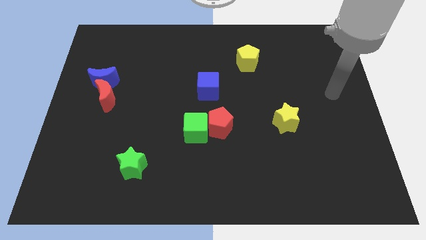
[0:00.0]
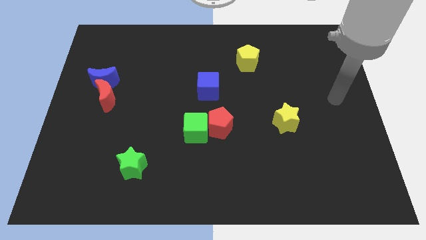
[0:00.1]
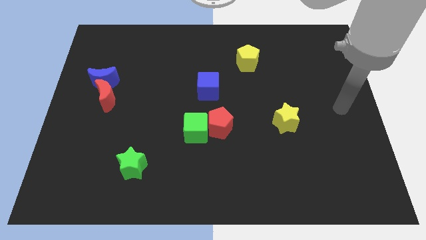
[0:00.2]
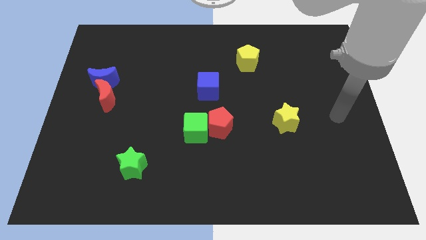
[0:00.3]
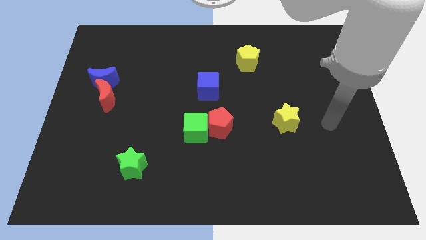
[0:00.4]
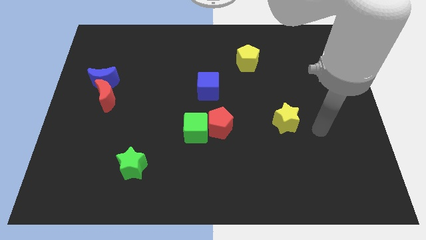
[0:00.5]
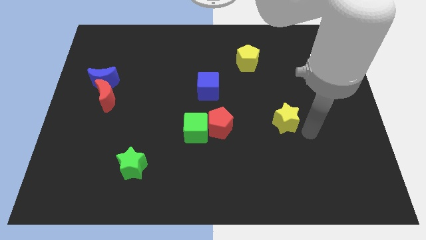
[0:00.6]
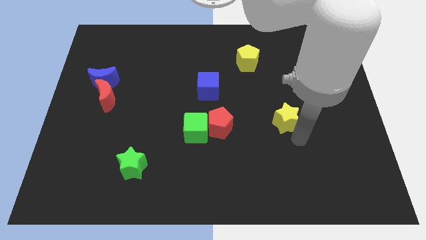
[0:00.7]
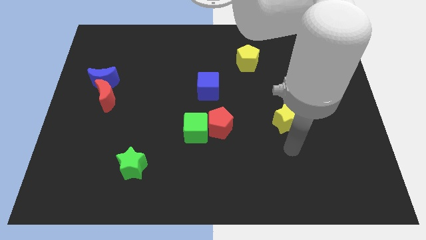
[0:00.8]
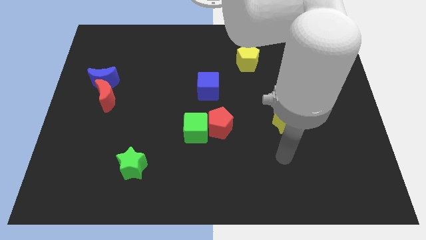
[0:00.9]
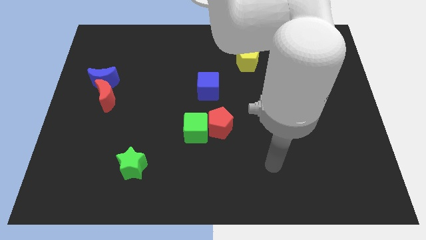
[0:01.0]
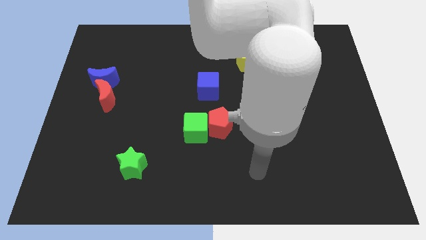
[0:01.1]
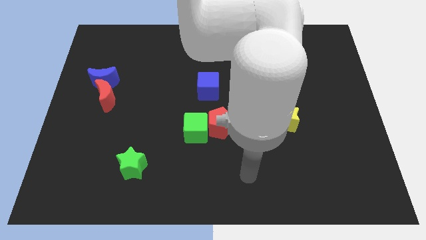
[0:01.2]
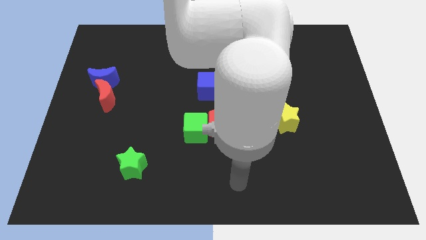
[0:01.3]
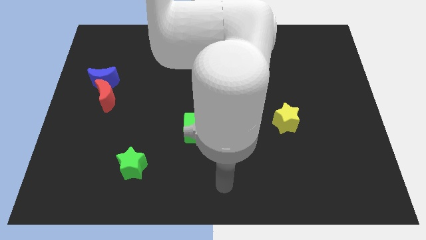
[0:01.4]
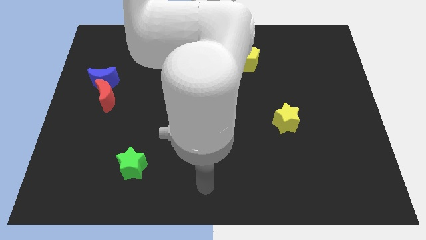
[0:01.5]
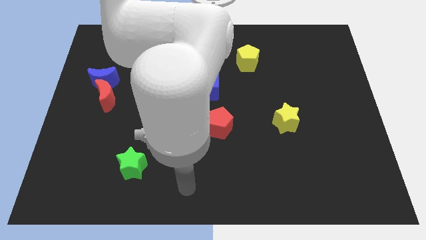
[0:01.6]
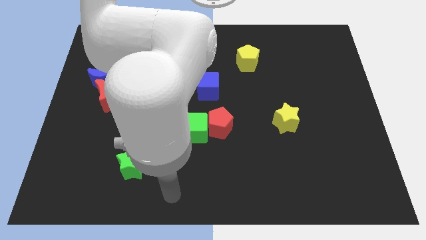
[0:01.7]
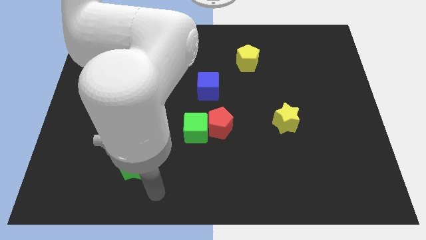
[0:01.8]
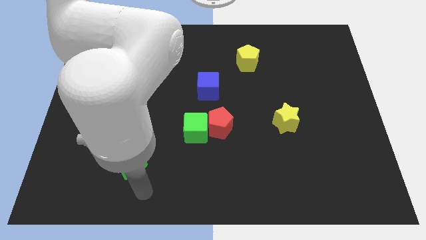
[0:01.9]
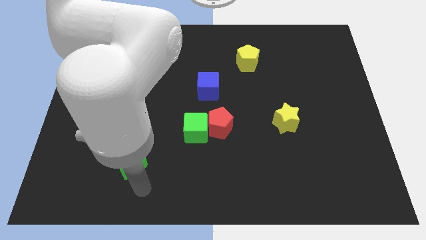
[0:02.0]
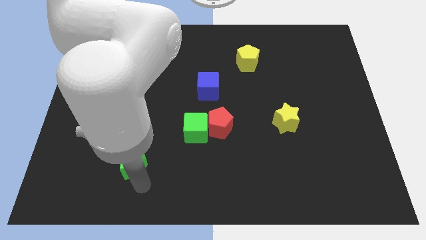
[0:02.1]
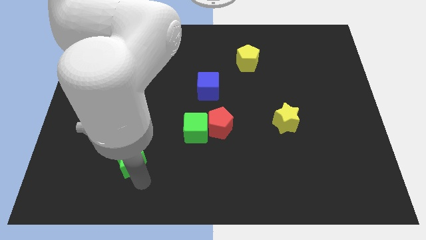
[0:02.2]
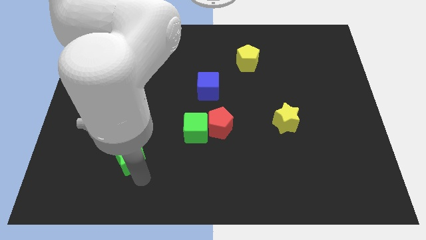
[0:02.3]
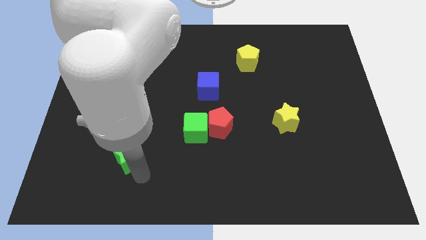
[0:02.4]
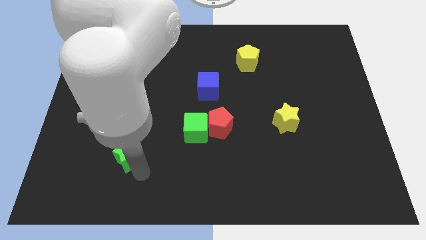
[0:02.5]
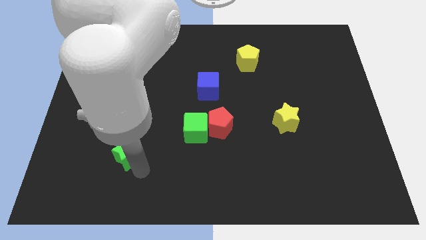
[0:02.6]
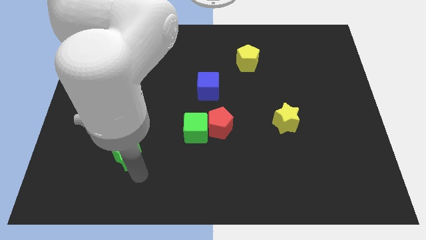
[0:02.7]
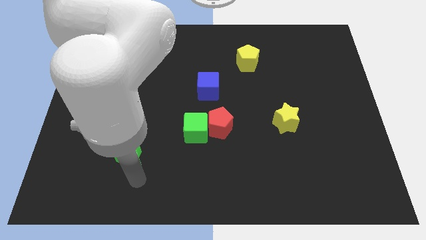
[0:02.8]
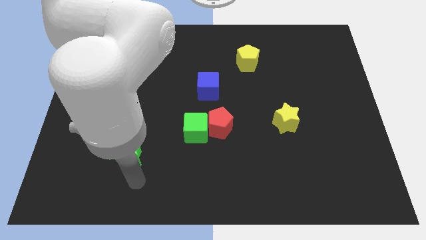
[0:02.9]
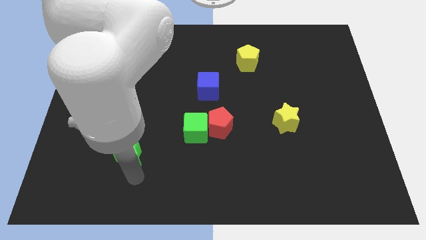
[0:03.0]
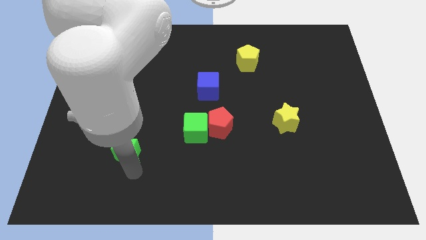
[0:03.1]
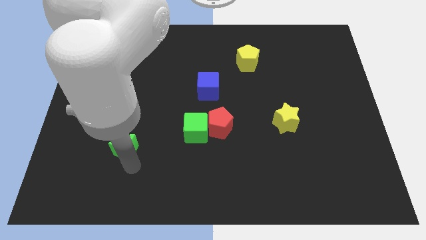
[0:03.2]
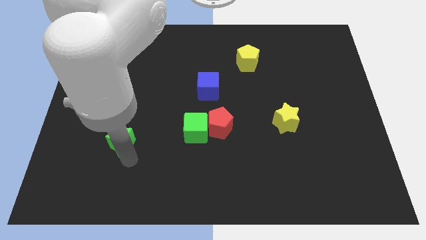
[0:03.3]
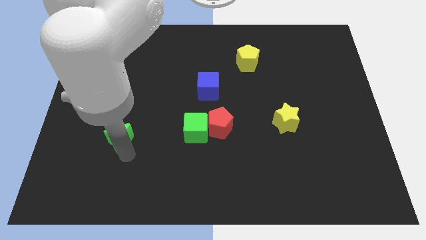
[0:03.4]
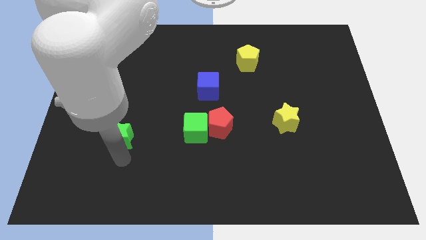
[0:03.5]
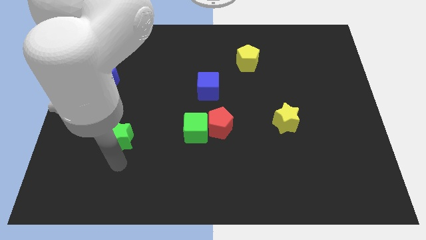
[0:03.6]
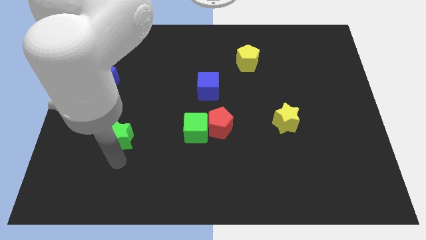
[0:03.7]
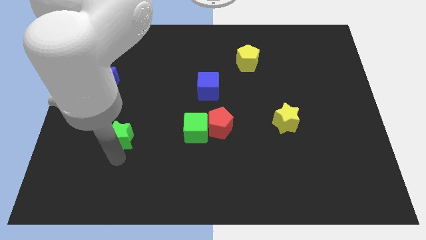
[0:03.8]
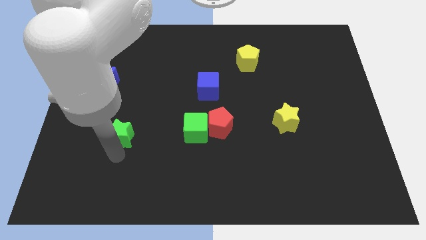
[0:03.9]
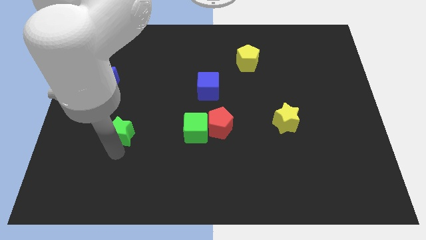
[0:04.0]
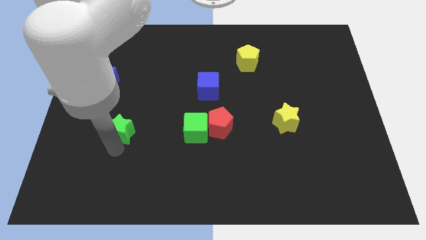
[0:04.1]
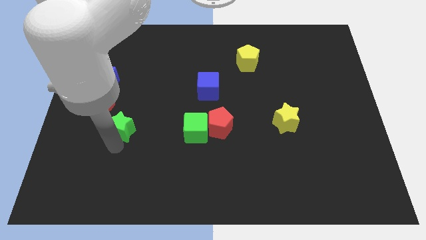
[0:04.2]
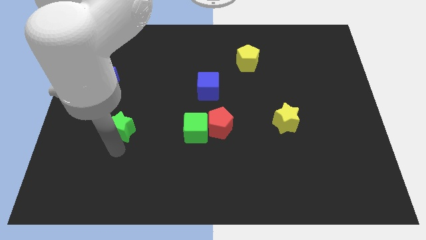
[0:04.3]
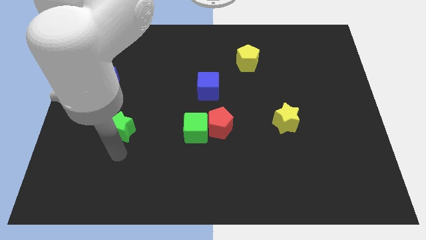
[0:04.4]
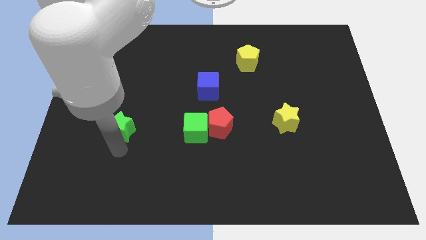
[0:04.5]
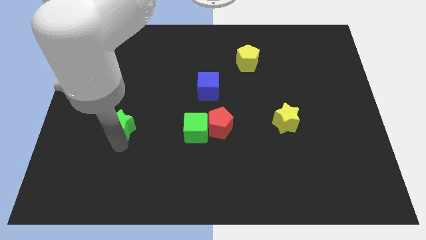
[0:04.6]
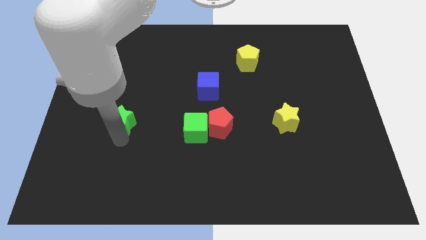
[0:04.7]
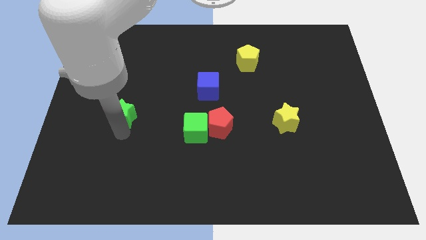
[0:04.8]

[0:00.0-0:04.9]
move the green star to the bottom right of the blue moon

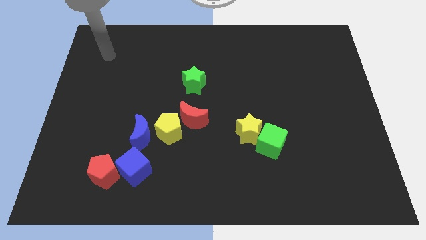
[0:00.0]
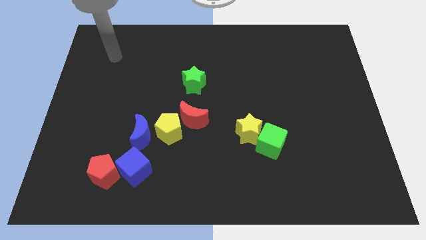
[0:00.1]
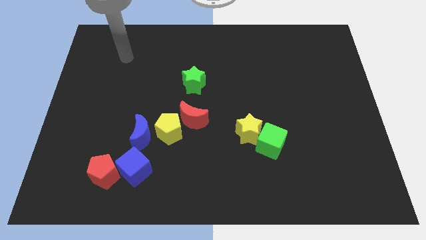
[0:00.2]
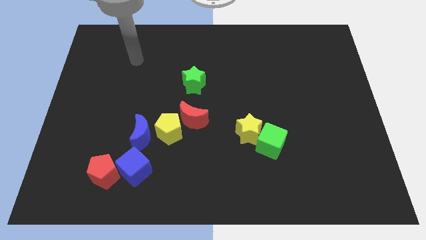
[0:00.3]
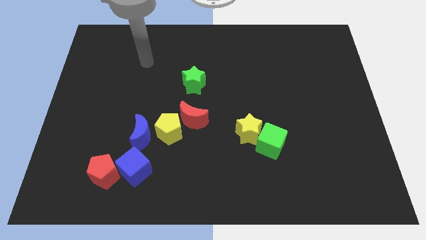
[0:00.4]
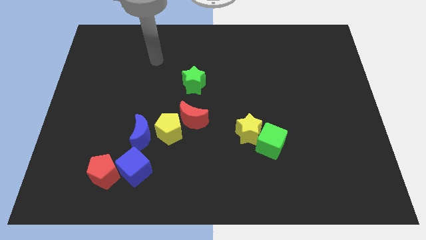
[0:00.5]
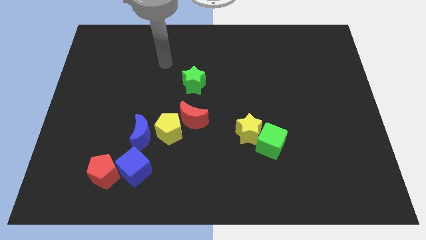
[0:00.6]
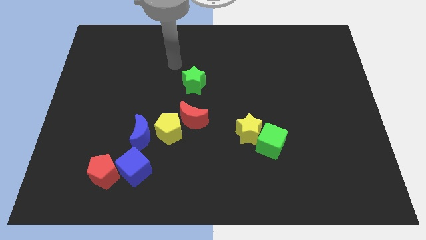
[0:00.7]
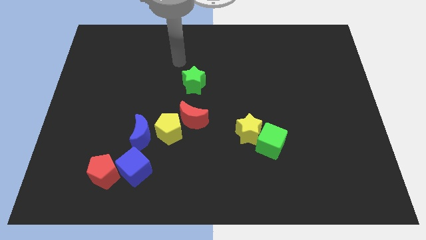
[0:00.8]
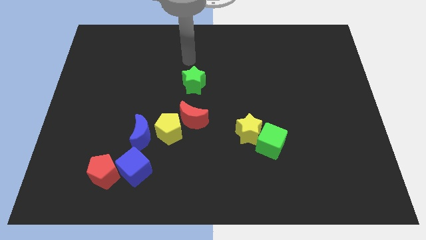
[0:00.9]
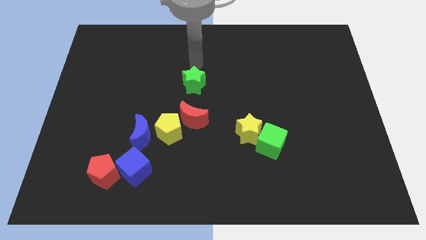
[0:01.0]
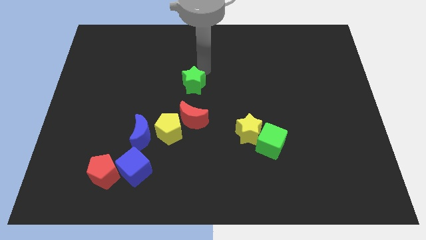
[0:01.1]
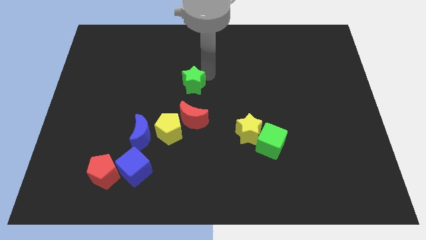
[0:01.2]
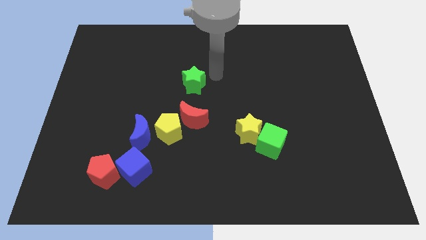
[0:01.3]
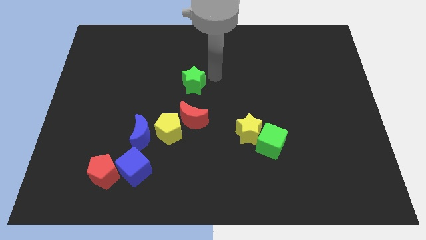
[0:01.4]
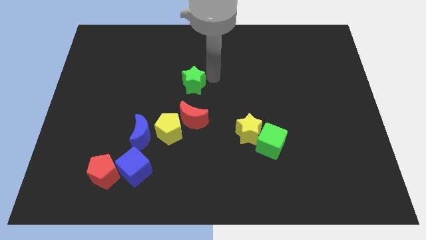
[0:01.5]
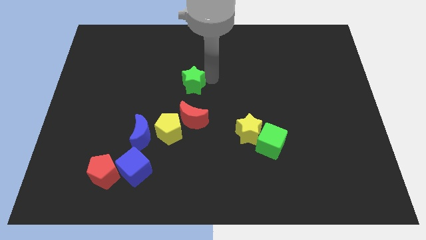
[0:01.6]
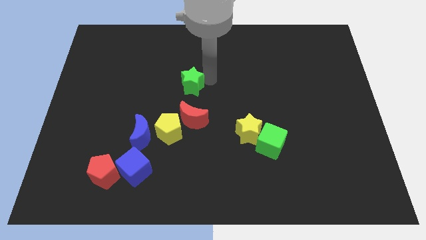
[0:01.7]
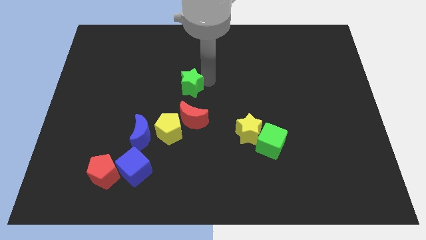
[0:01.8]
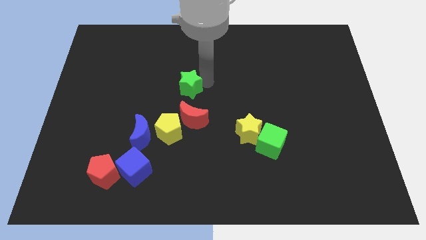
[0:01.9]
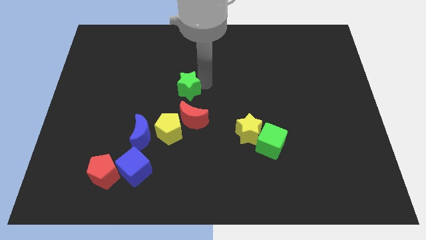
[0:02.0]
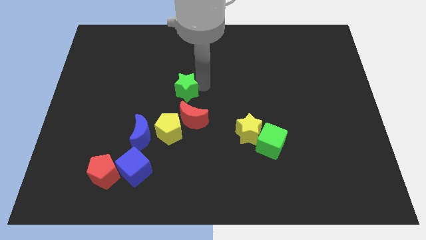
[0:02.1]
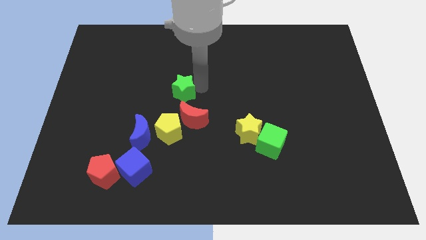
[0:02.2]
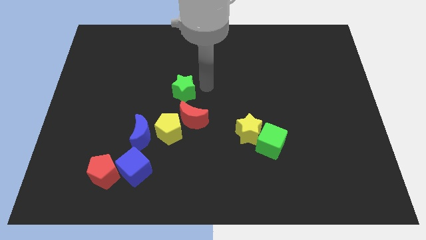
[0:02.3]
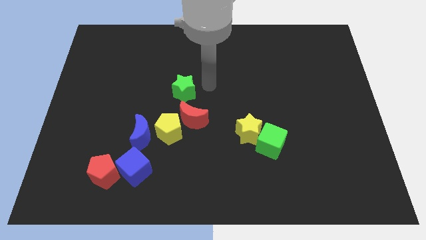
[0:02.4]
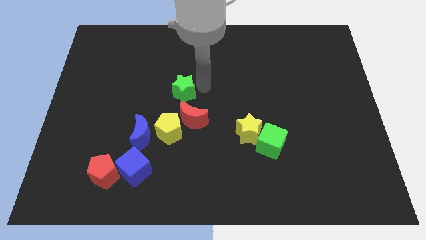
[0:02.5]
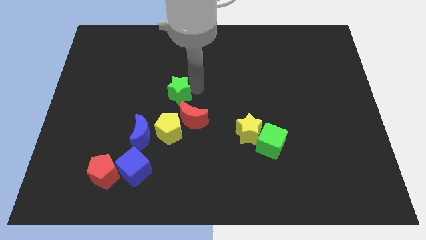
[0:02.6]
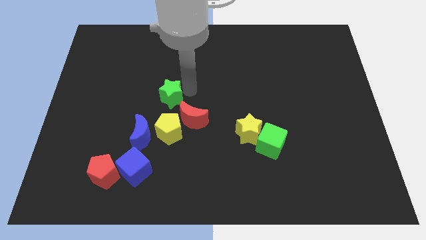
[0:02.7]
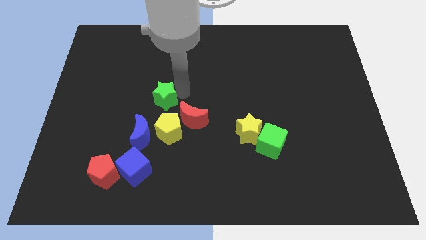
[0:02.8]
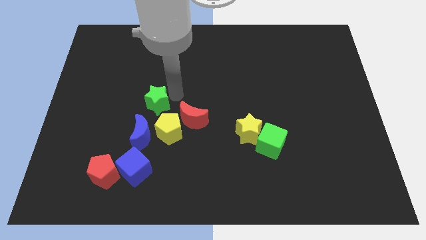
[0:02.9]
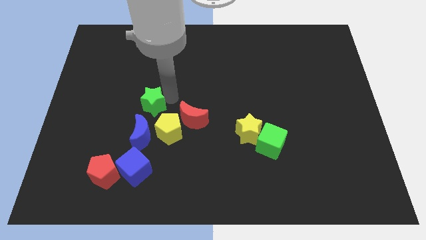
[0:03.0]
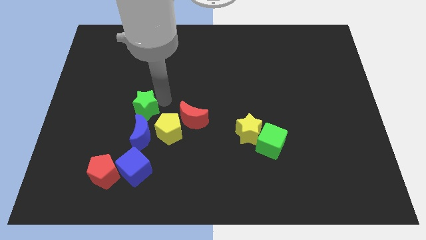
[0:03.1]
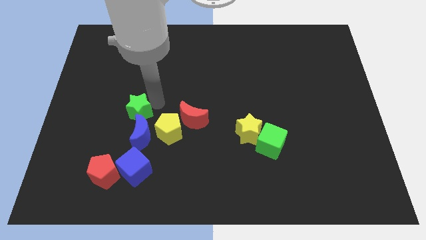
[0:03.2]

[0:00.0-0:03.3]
push the green star to the top left of the blue moon
